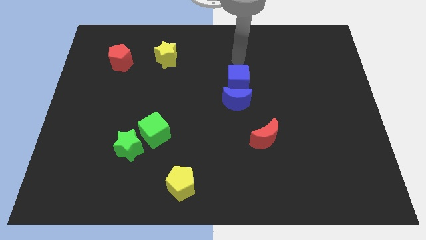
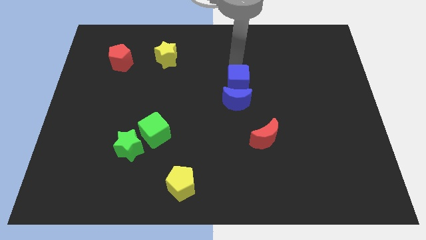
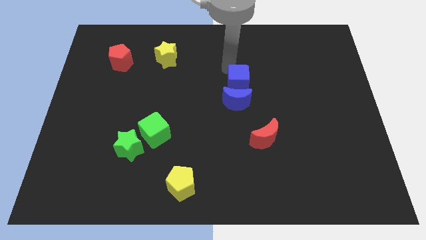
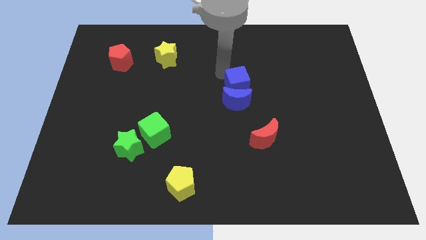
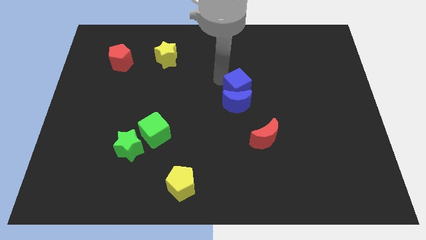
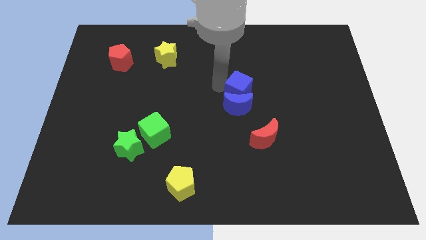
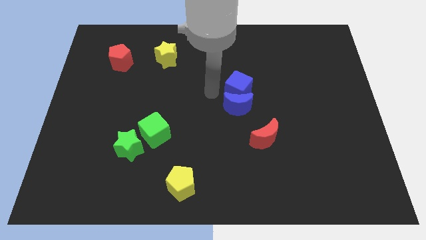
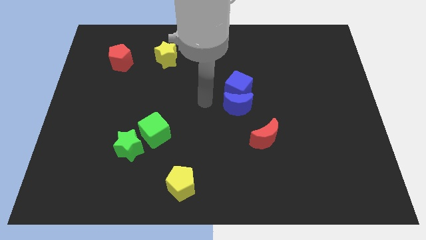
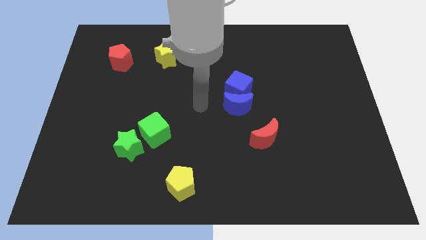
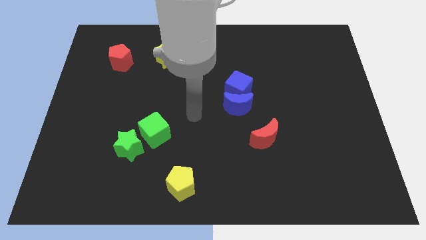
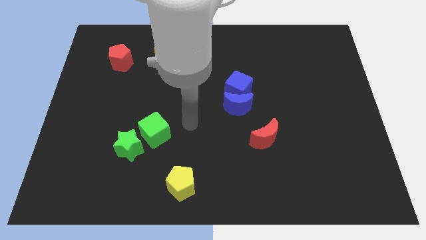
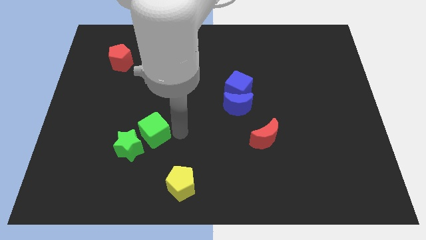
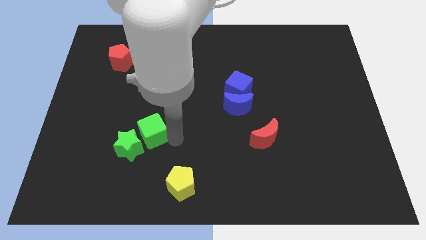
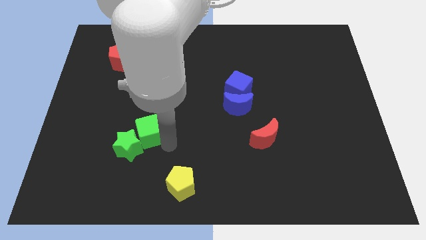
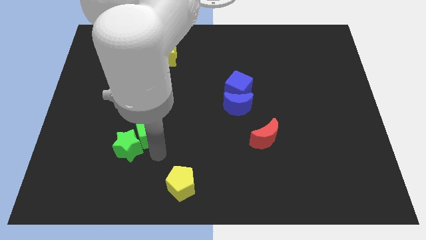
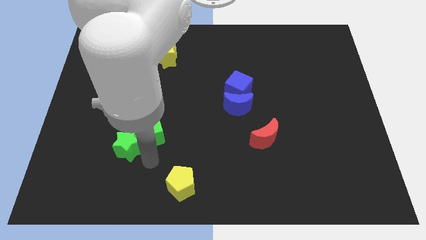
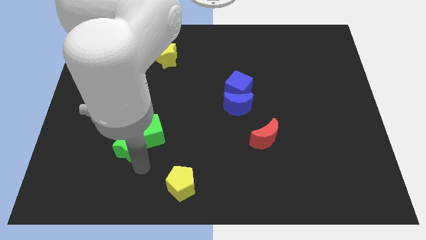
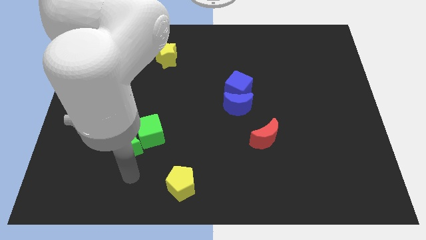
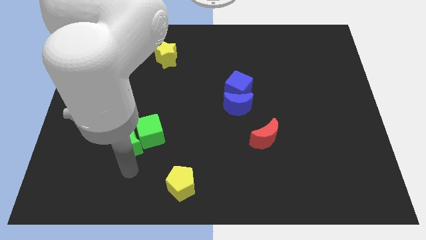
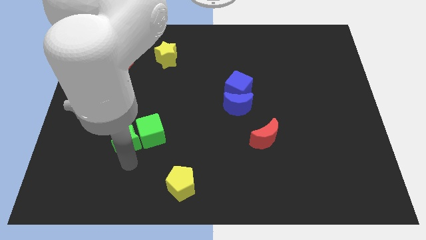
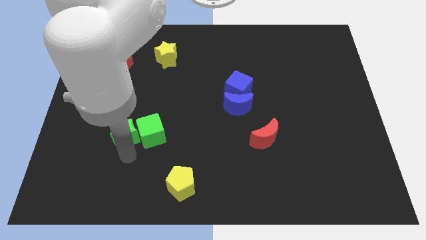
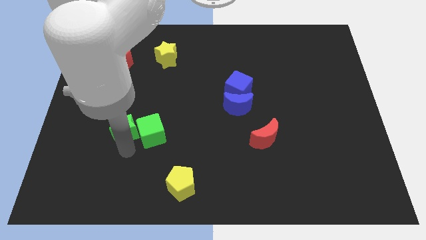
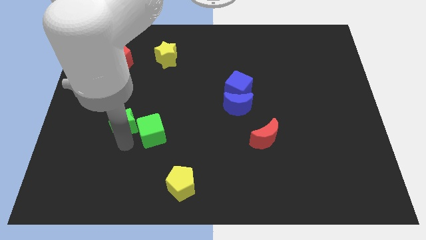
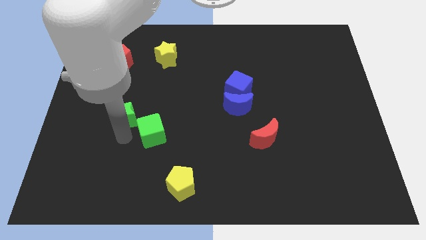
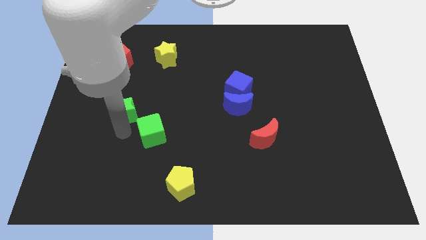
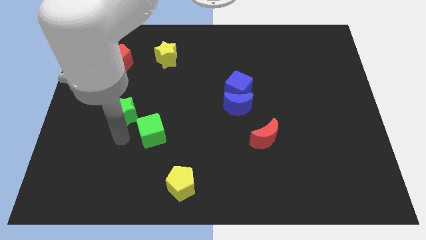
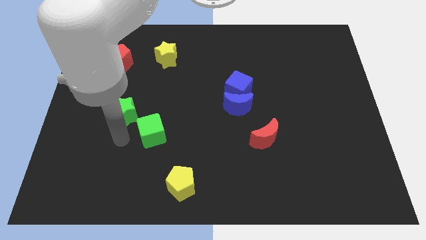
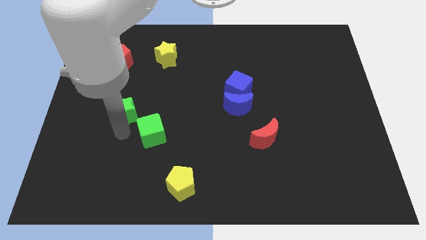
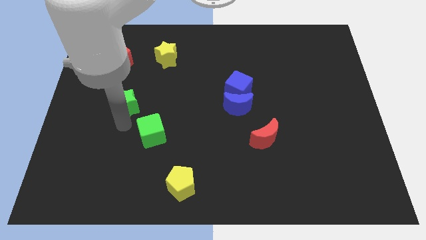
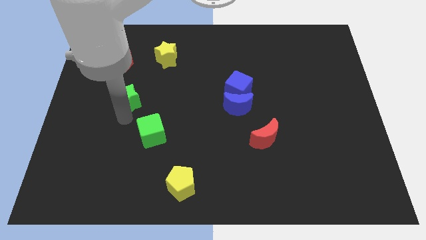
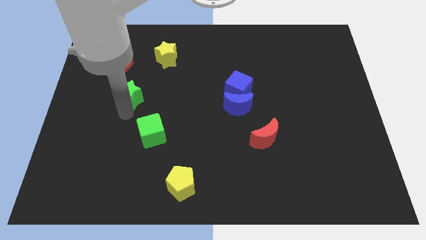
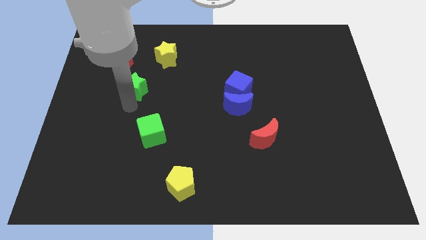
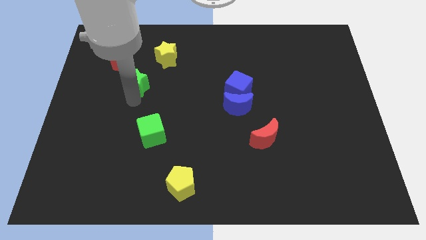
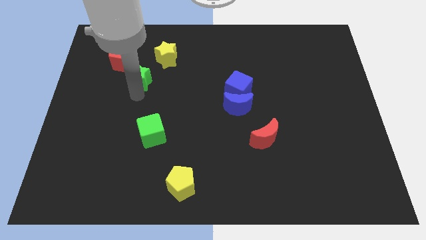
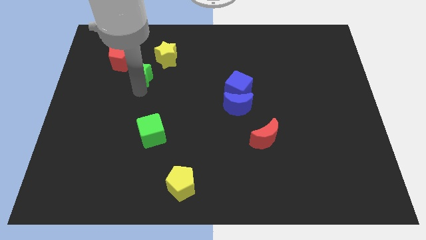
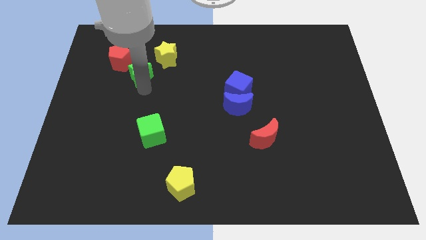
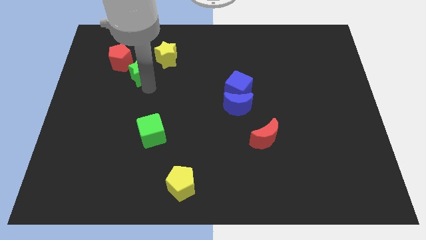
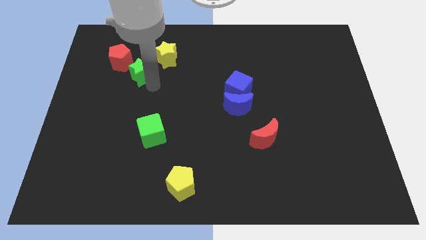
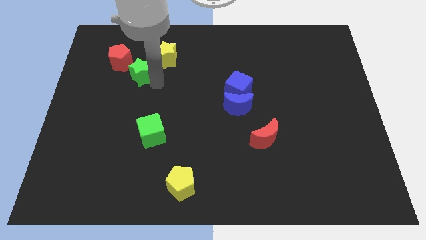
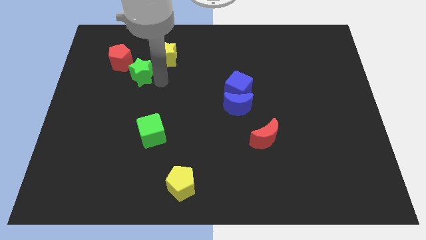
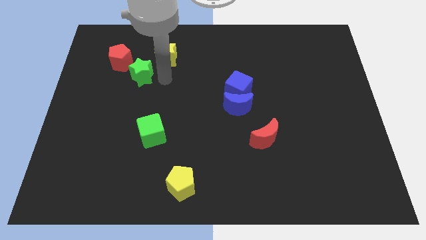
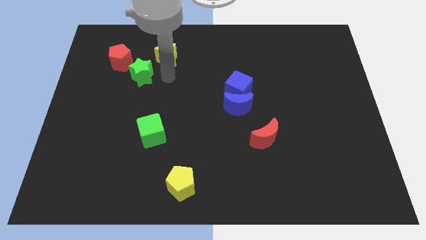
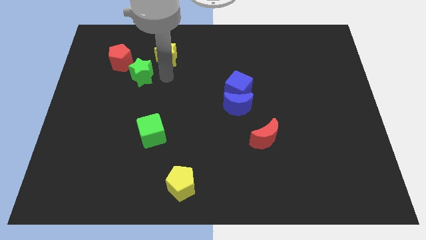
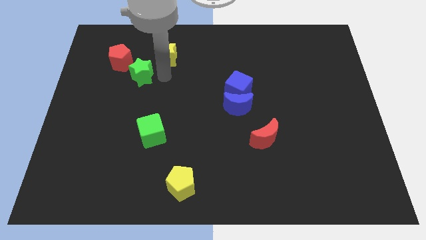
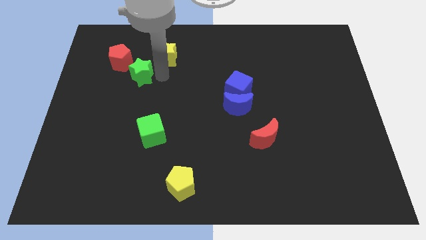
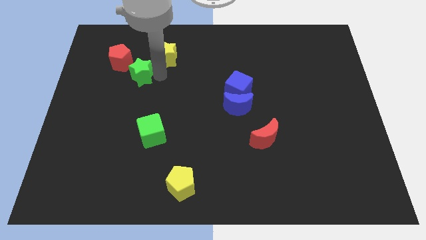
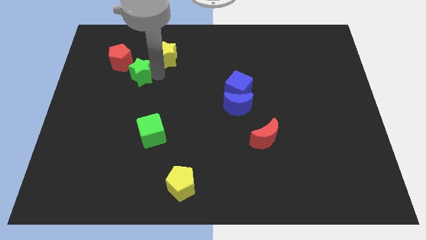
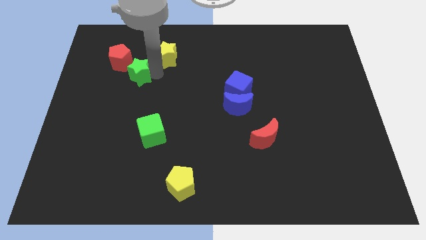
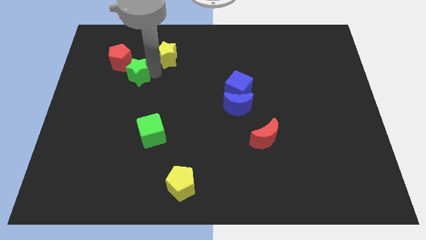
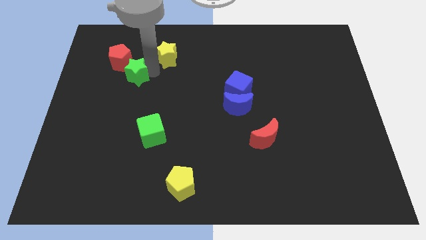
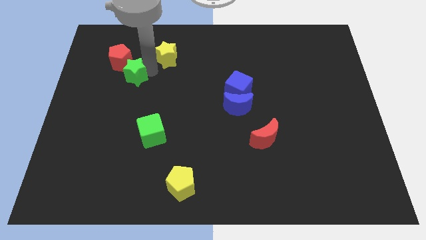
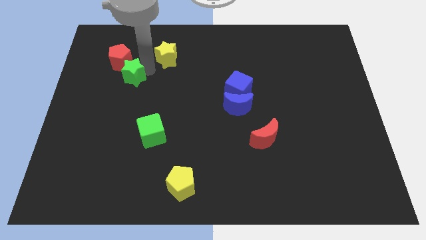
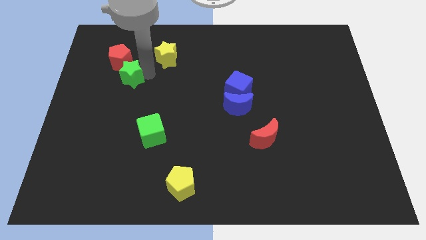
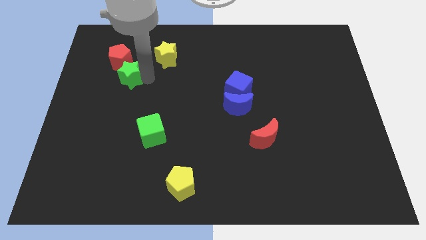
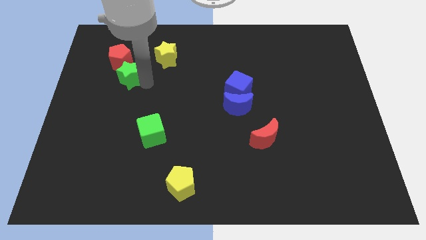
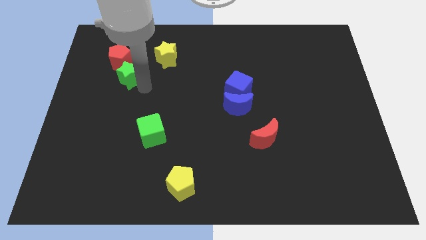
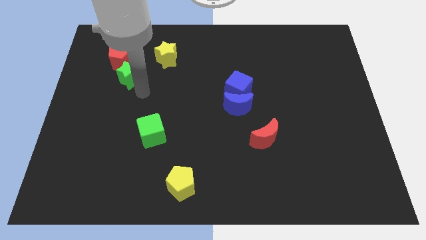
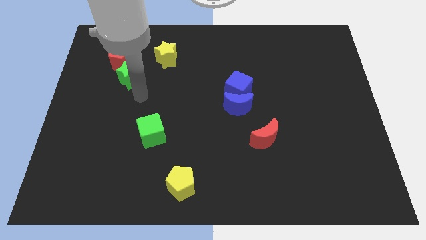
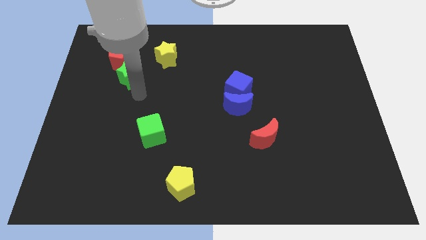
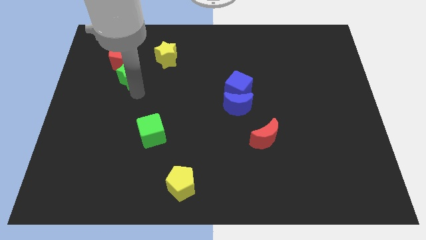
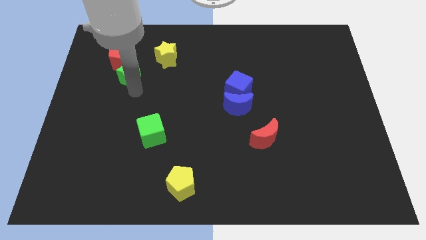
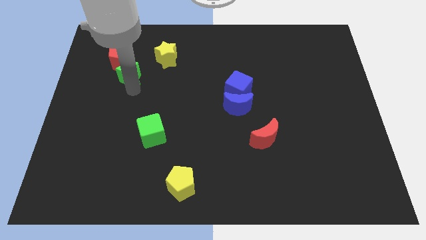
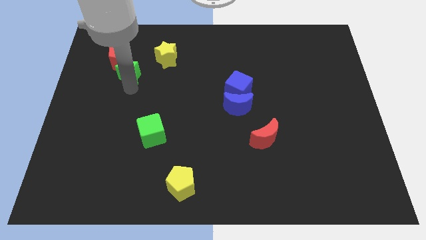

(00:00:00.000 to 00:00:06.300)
push the green star next to the red pentagon

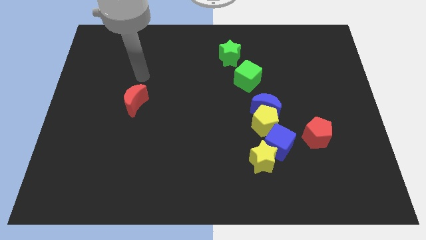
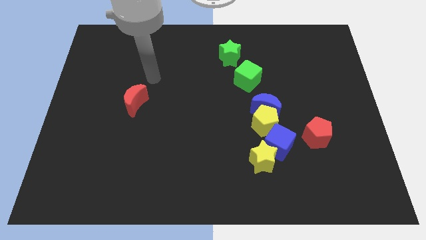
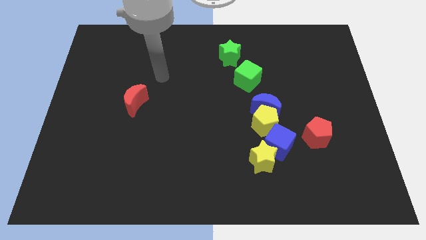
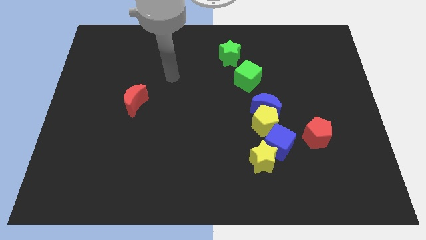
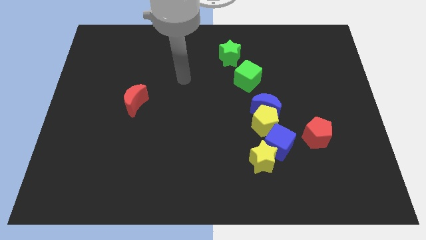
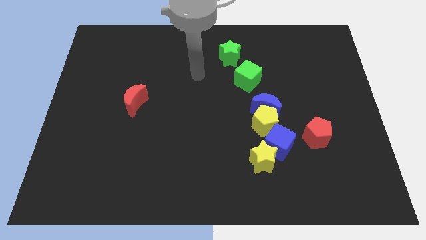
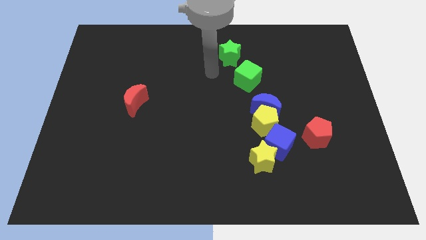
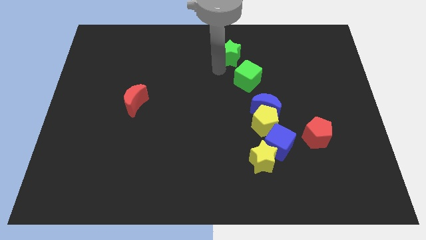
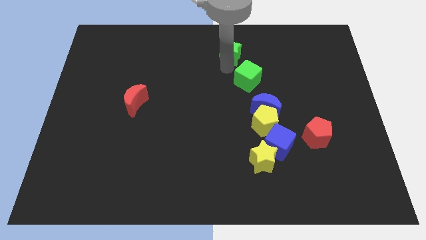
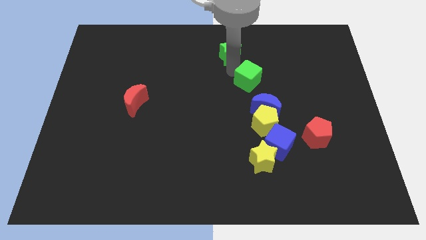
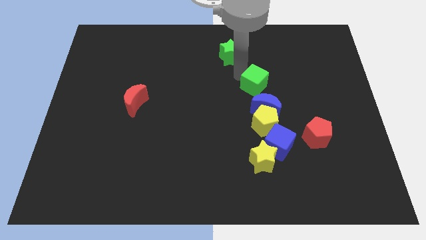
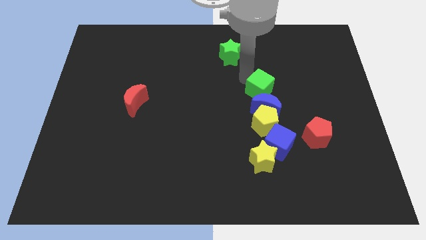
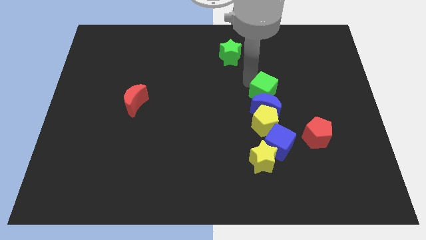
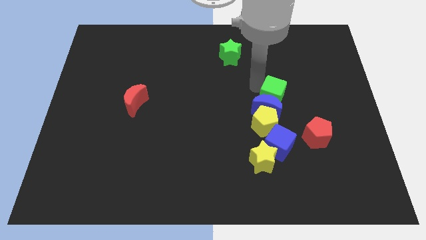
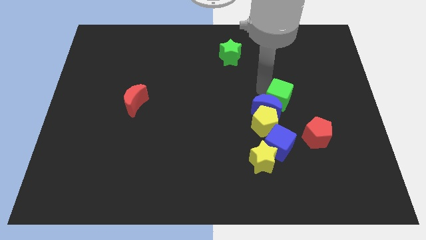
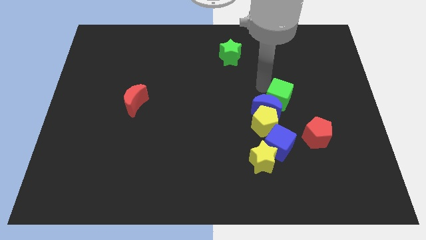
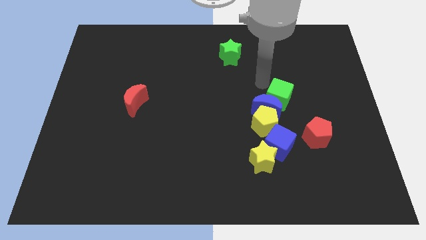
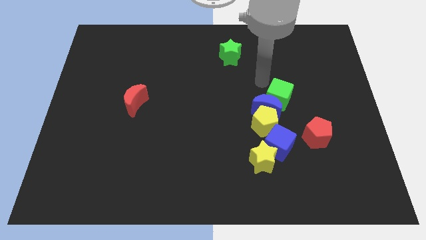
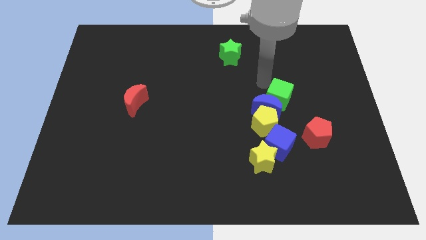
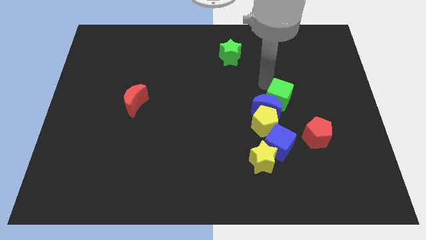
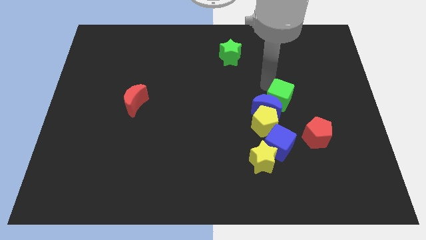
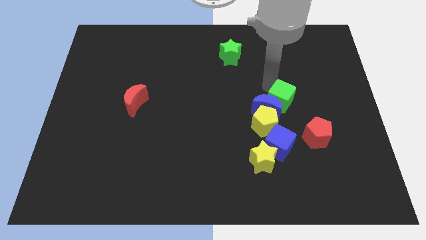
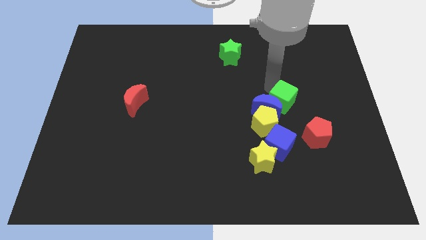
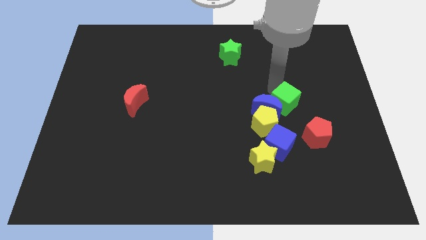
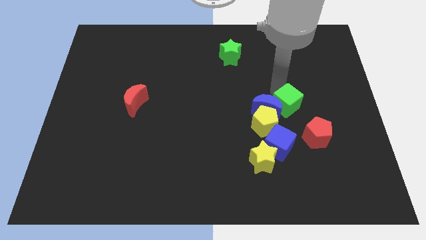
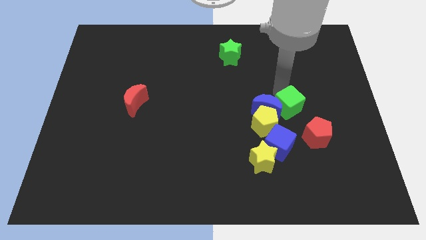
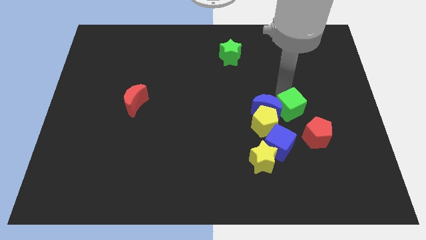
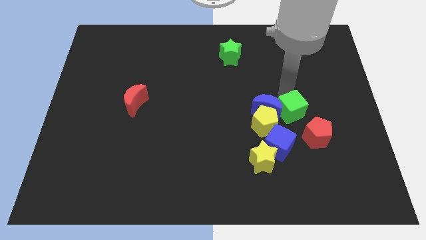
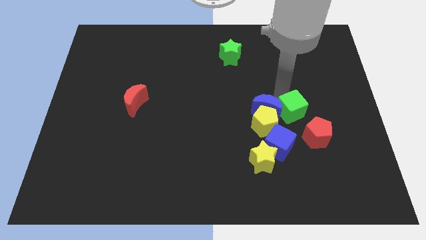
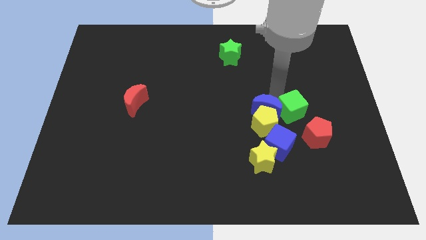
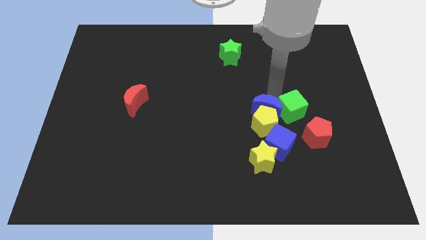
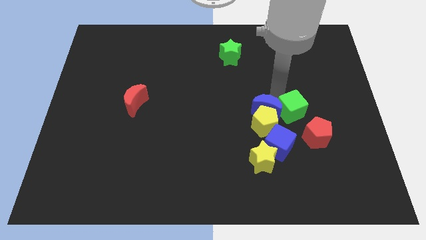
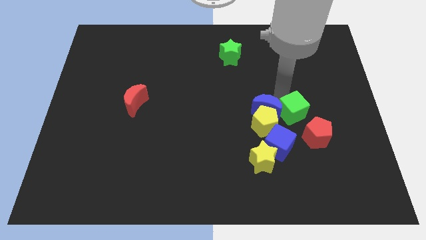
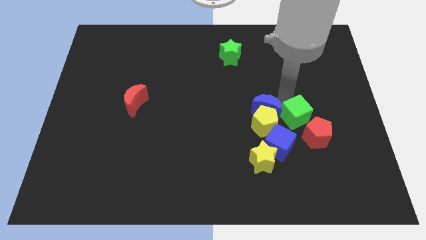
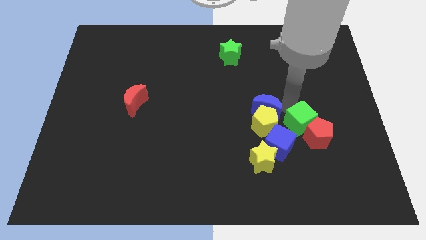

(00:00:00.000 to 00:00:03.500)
put the green cube to the red pentagon
